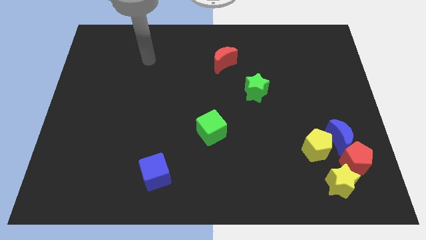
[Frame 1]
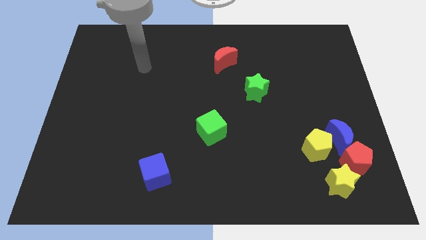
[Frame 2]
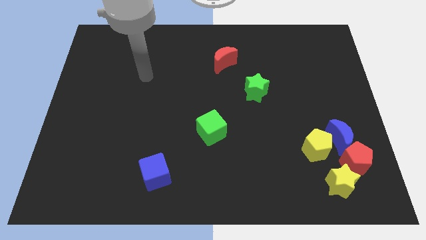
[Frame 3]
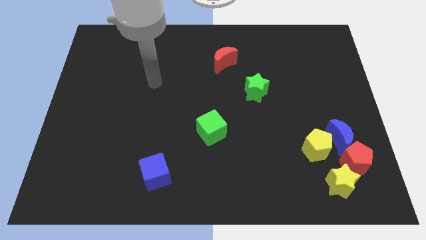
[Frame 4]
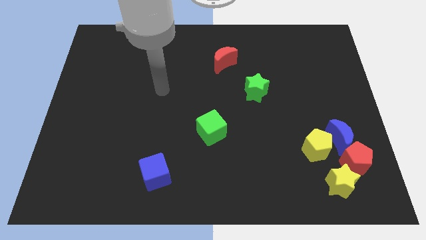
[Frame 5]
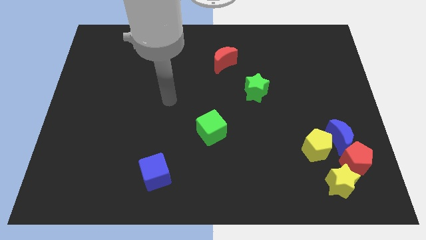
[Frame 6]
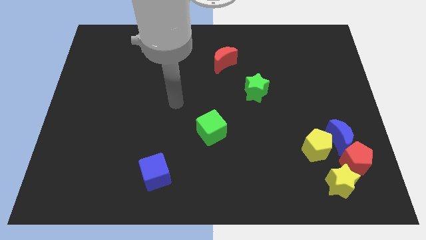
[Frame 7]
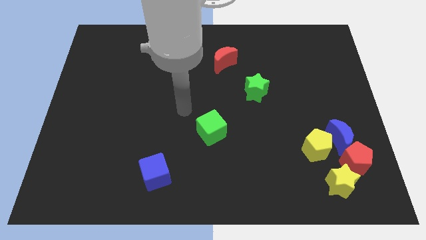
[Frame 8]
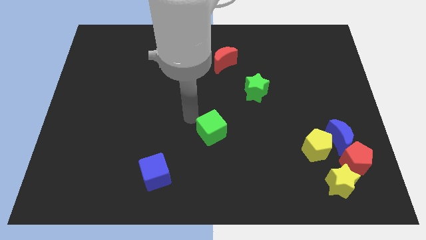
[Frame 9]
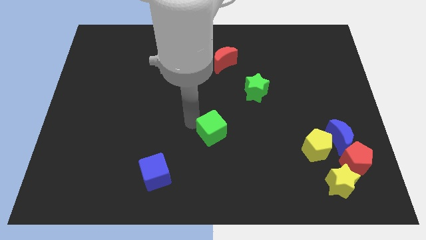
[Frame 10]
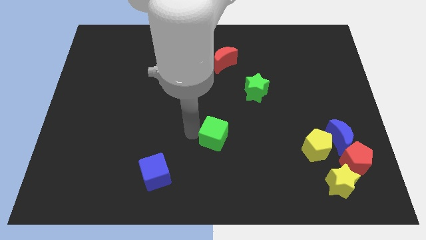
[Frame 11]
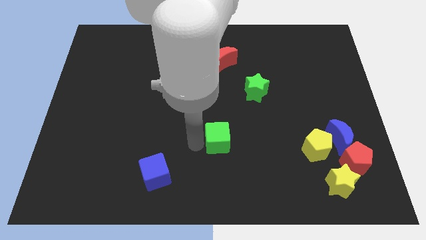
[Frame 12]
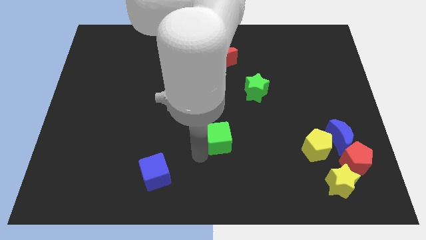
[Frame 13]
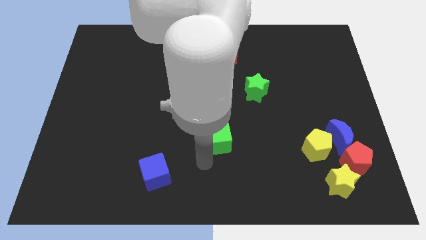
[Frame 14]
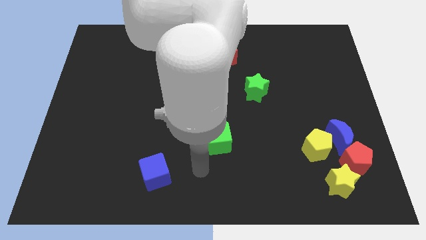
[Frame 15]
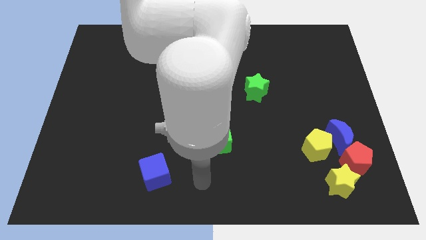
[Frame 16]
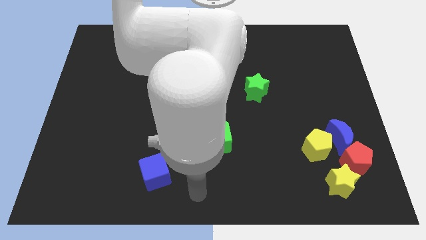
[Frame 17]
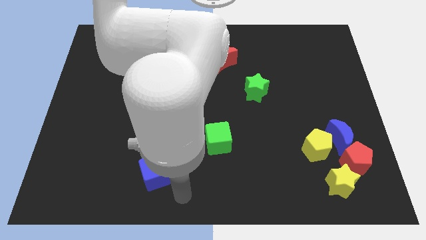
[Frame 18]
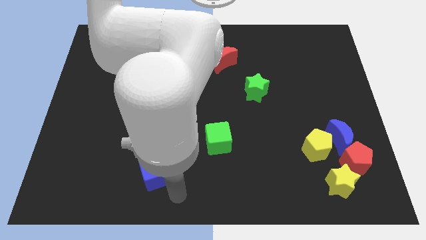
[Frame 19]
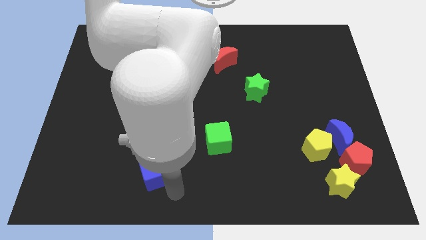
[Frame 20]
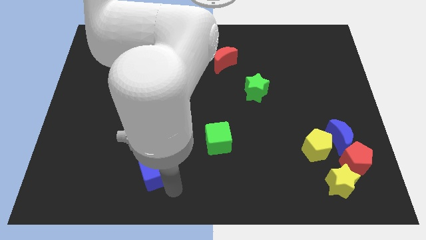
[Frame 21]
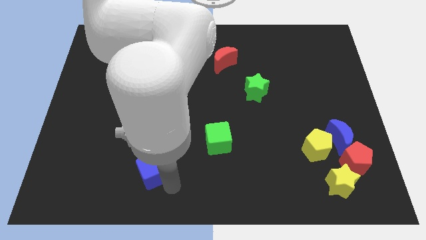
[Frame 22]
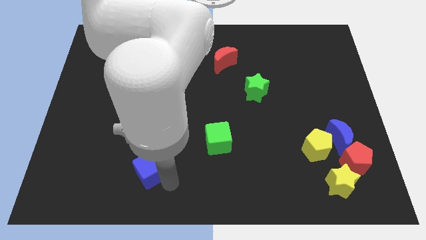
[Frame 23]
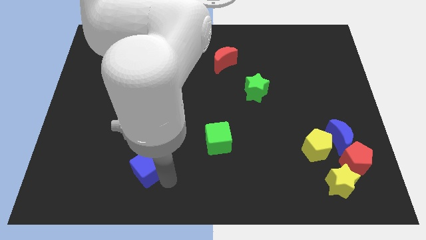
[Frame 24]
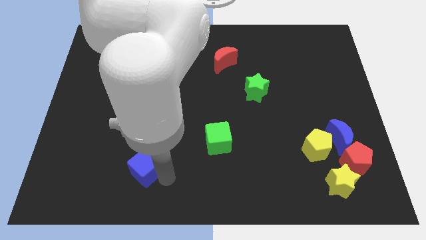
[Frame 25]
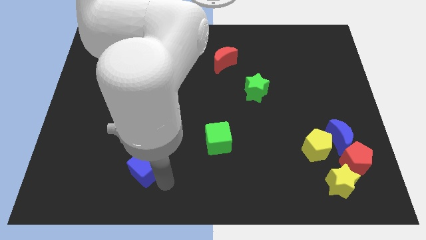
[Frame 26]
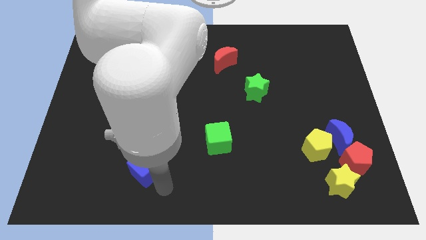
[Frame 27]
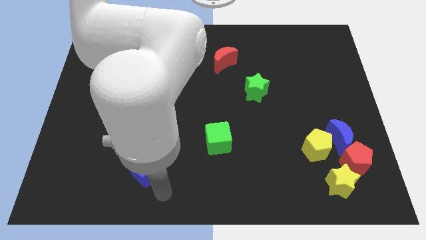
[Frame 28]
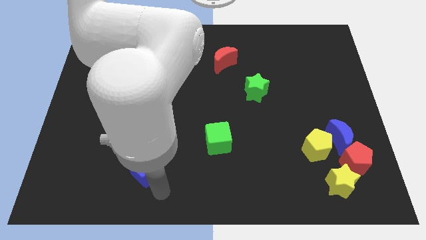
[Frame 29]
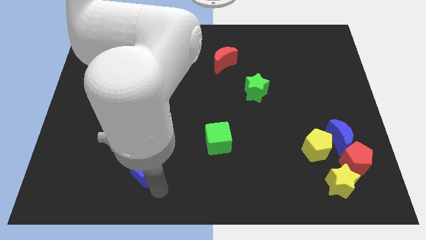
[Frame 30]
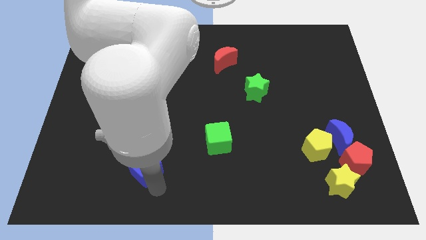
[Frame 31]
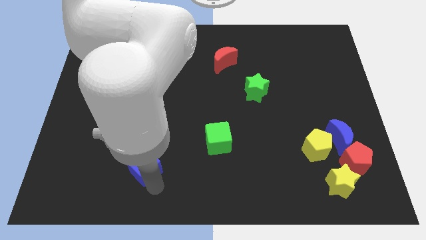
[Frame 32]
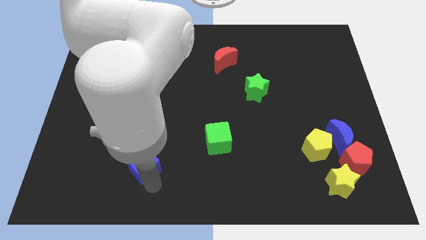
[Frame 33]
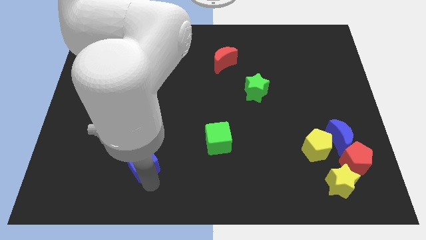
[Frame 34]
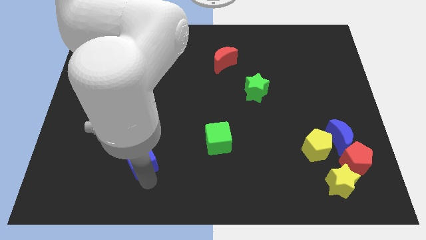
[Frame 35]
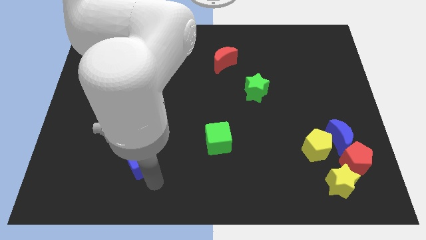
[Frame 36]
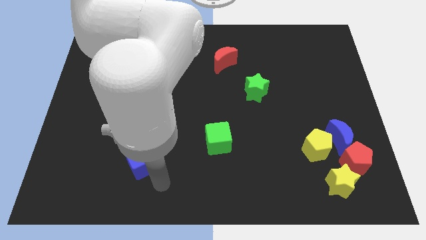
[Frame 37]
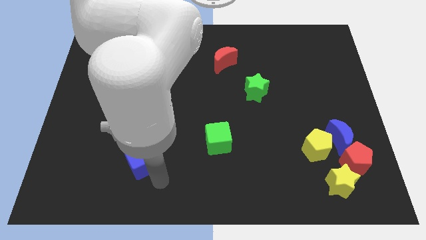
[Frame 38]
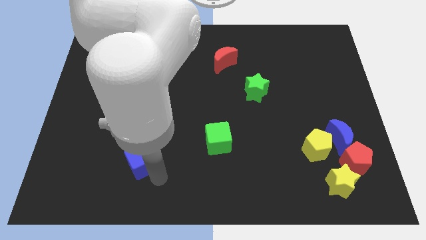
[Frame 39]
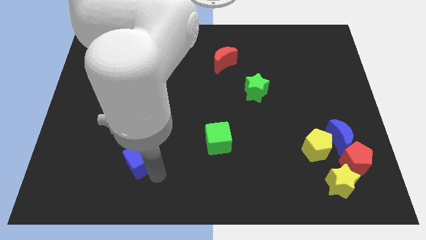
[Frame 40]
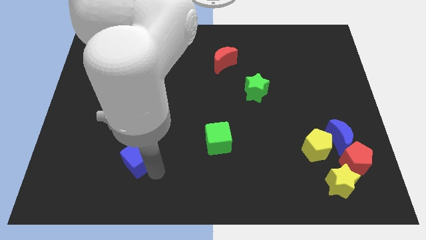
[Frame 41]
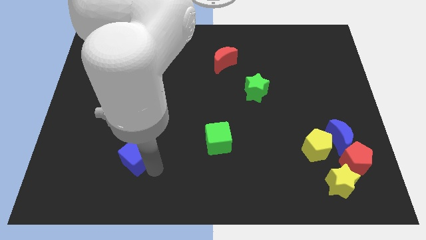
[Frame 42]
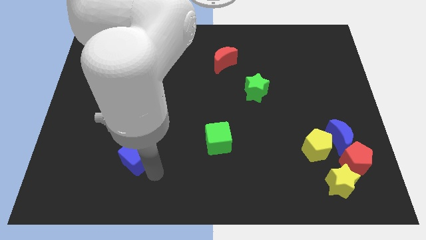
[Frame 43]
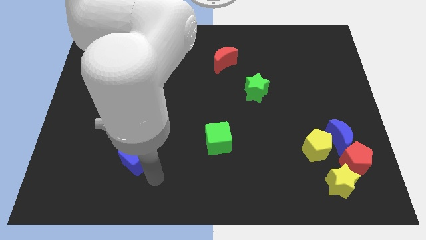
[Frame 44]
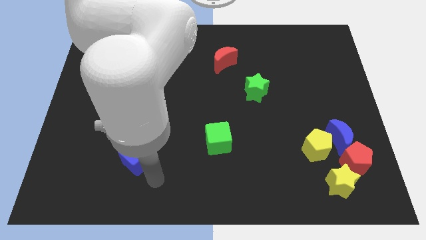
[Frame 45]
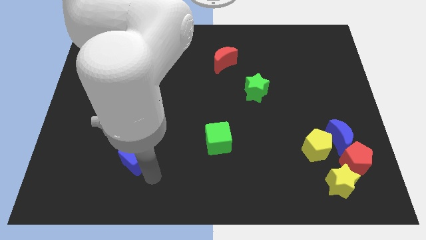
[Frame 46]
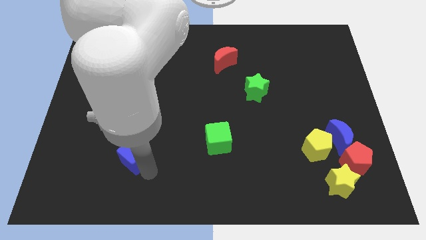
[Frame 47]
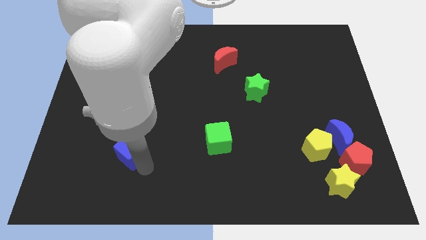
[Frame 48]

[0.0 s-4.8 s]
move the blue cube somewhat diagonally upwards and left

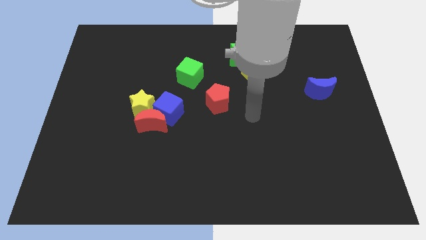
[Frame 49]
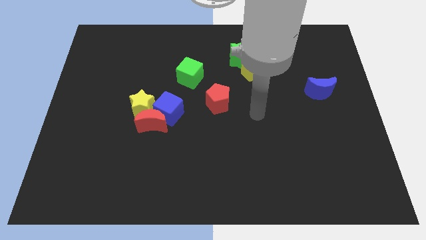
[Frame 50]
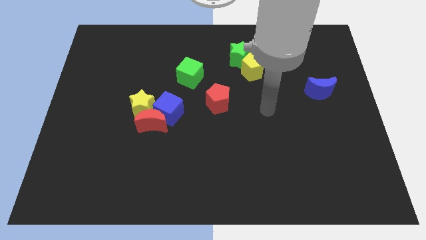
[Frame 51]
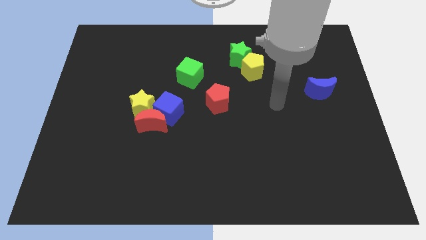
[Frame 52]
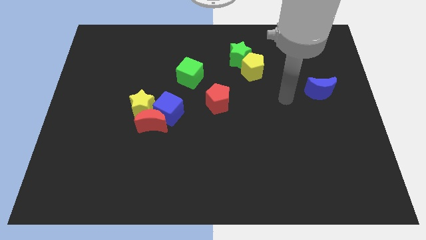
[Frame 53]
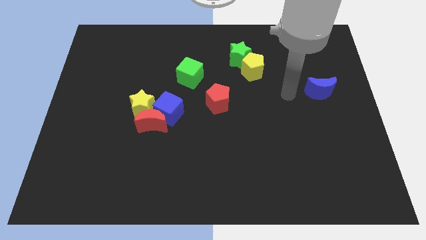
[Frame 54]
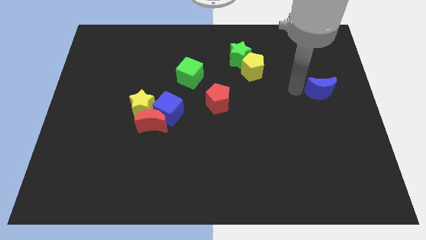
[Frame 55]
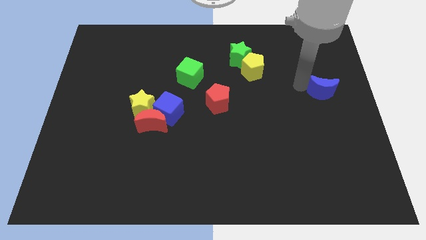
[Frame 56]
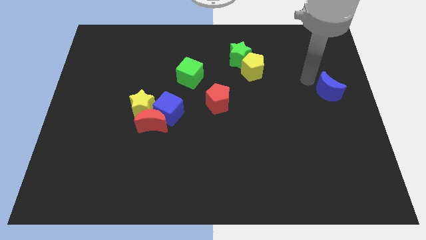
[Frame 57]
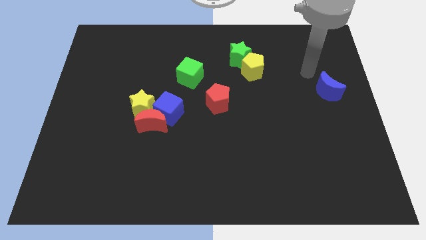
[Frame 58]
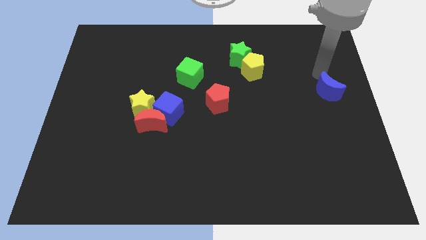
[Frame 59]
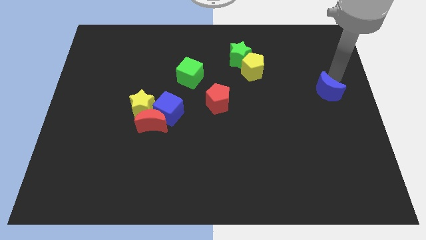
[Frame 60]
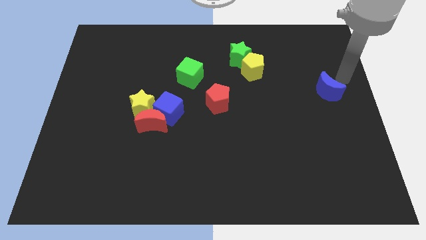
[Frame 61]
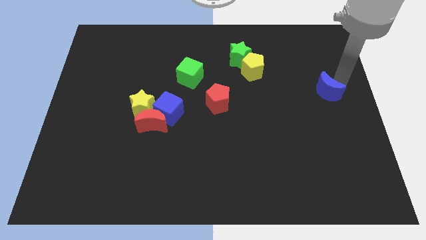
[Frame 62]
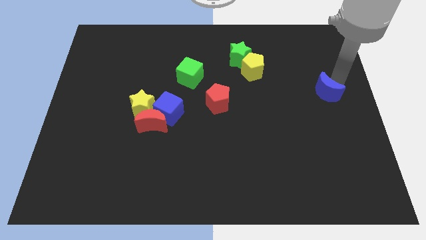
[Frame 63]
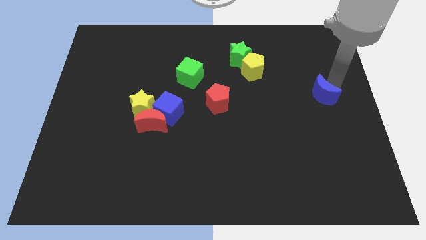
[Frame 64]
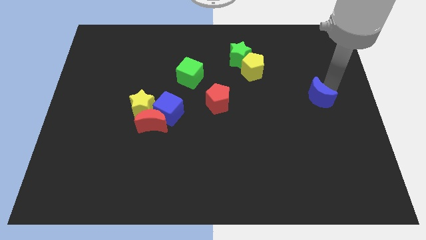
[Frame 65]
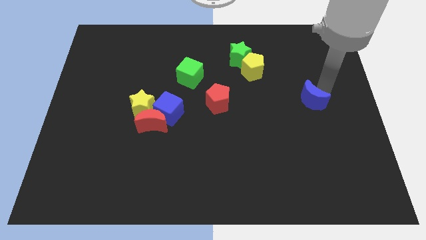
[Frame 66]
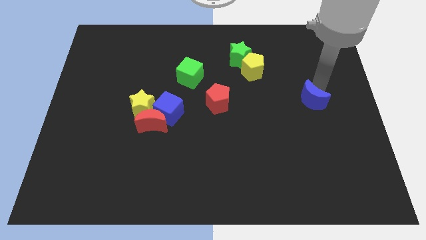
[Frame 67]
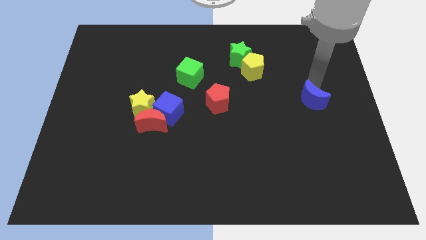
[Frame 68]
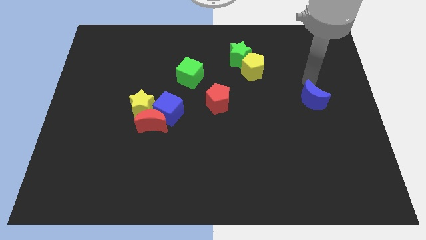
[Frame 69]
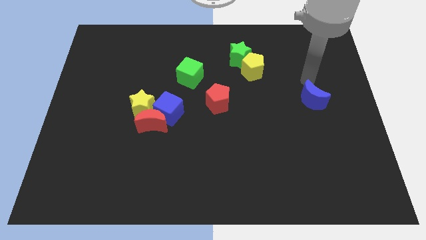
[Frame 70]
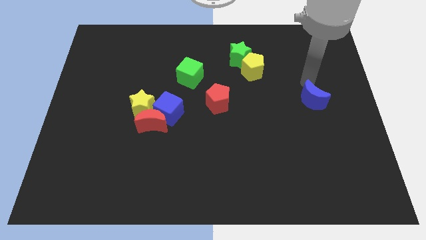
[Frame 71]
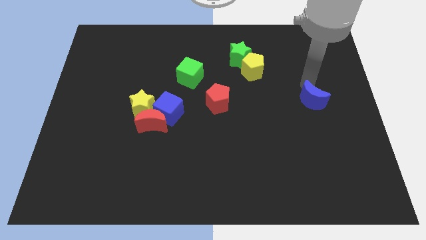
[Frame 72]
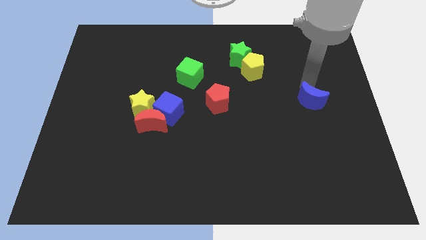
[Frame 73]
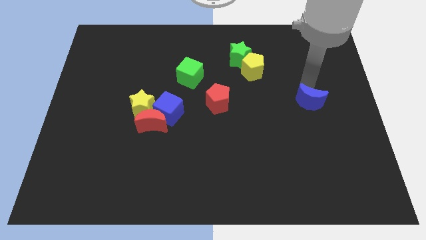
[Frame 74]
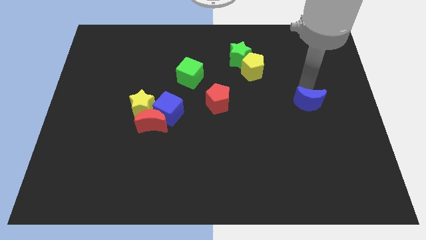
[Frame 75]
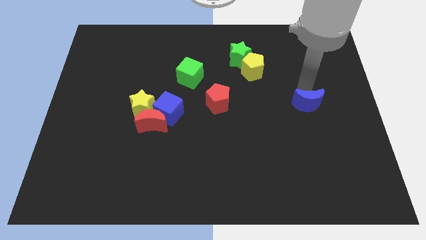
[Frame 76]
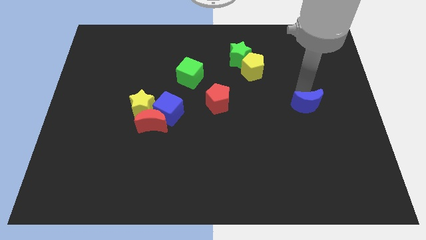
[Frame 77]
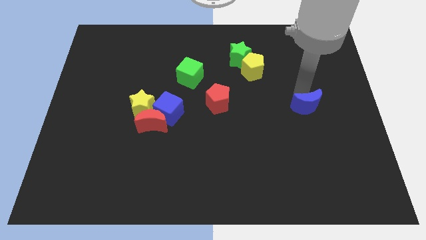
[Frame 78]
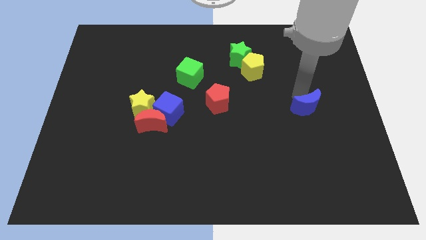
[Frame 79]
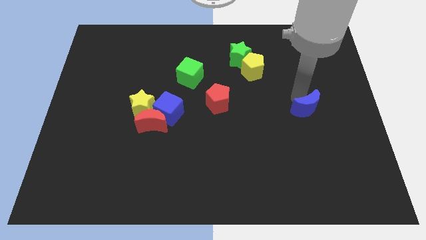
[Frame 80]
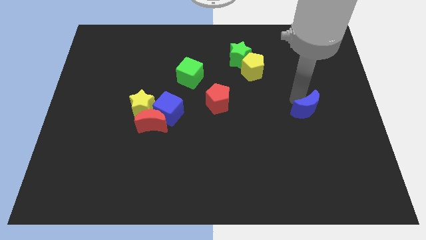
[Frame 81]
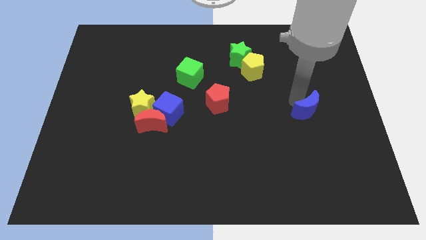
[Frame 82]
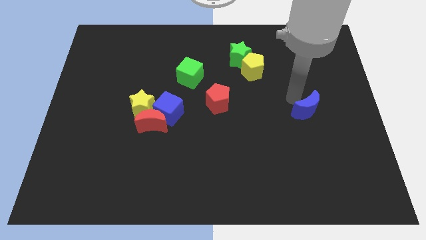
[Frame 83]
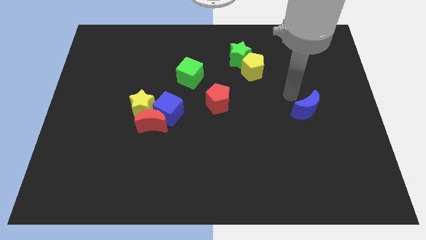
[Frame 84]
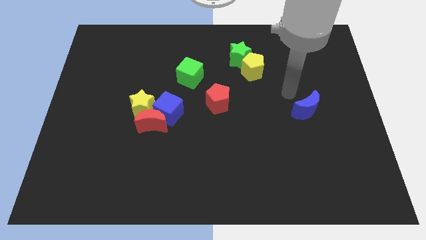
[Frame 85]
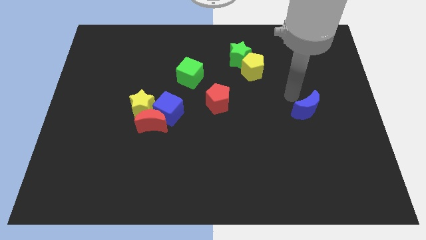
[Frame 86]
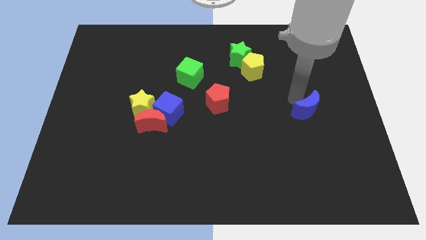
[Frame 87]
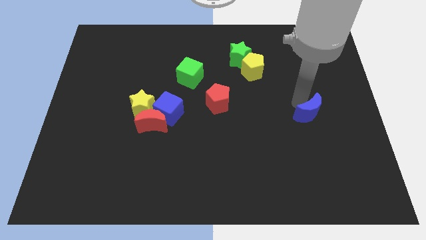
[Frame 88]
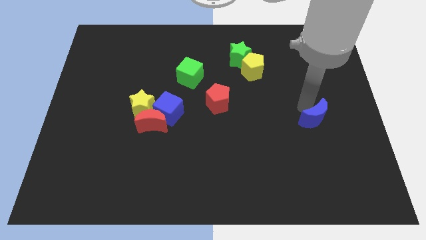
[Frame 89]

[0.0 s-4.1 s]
slightly move the blue moon downwards
